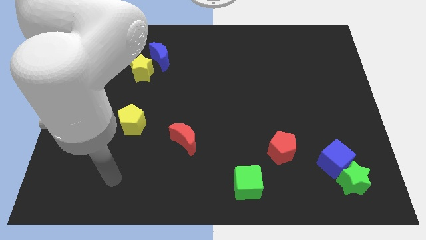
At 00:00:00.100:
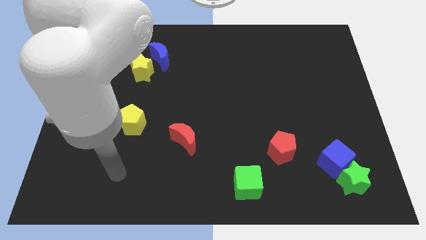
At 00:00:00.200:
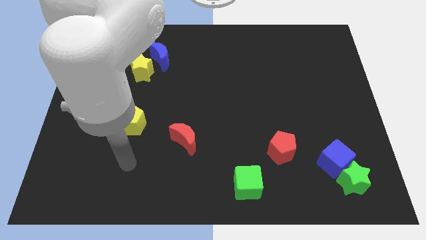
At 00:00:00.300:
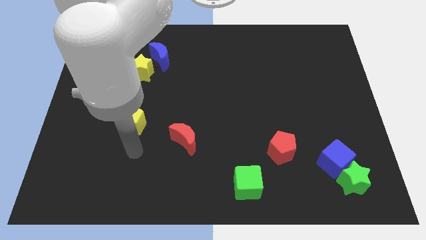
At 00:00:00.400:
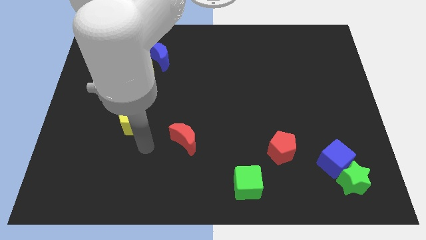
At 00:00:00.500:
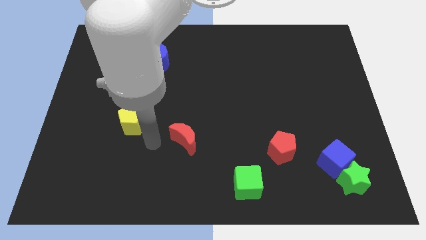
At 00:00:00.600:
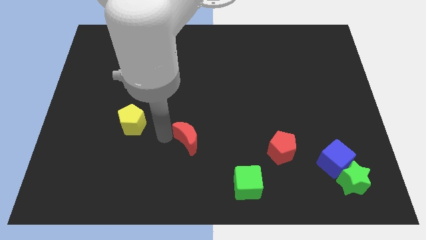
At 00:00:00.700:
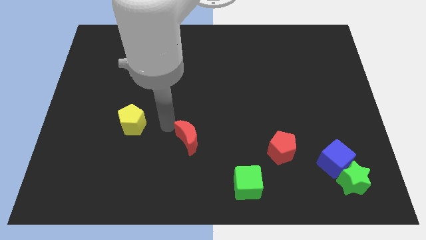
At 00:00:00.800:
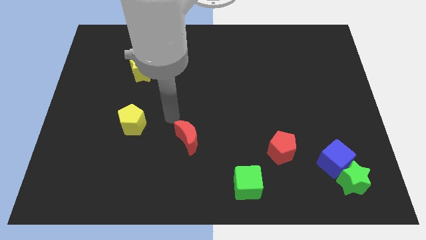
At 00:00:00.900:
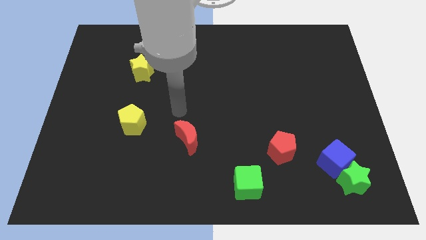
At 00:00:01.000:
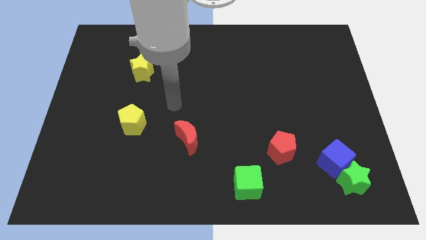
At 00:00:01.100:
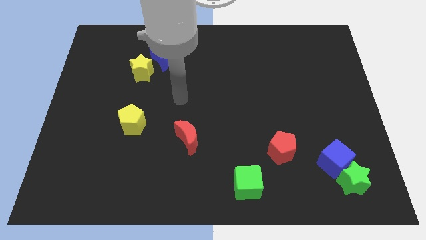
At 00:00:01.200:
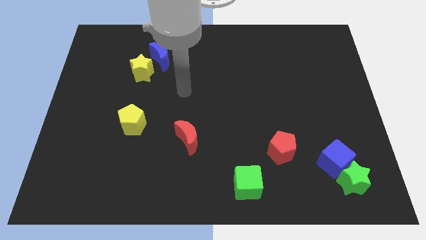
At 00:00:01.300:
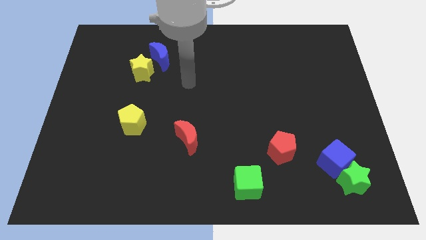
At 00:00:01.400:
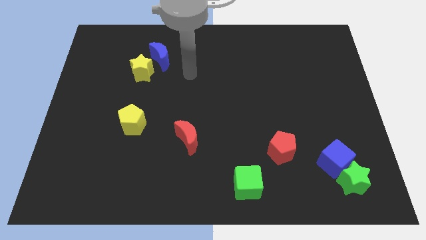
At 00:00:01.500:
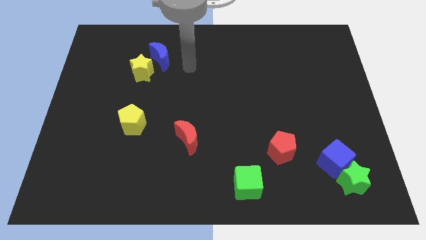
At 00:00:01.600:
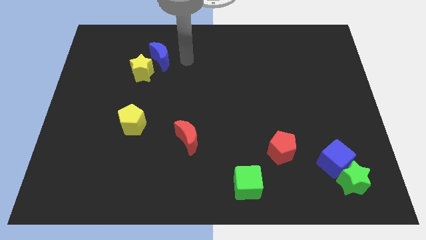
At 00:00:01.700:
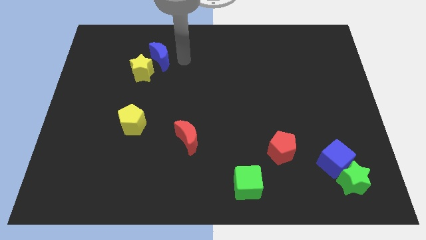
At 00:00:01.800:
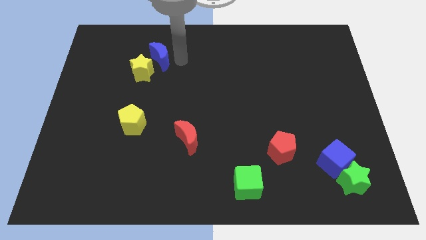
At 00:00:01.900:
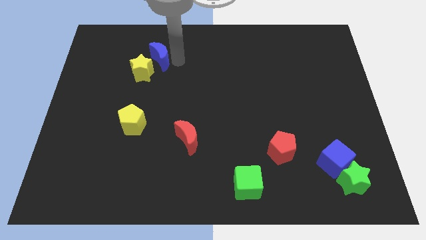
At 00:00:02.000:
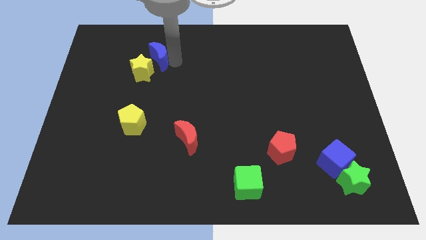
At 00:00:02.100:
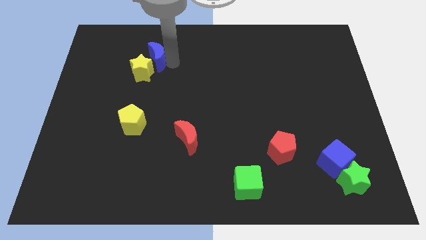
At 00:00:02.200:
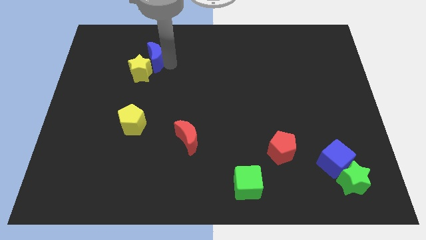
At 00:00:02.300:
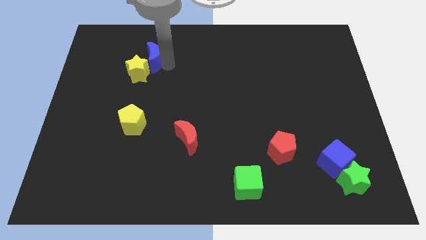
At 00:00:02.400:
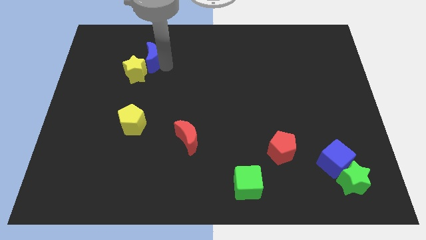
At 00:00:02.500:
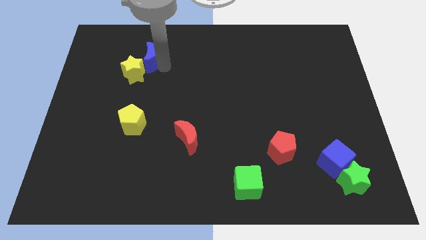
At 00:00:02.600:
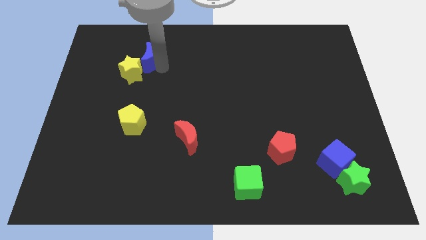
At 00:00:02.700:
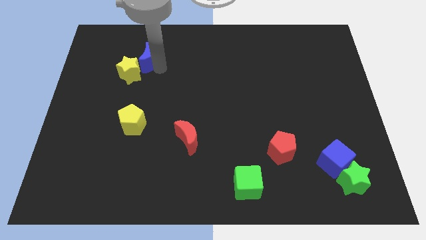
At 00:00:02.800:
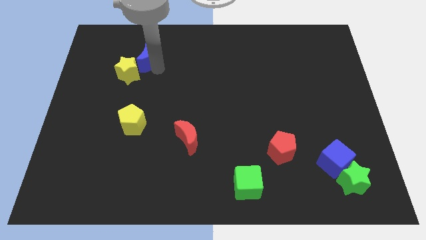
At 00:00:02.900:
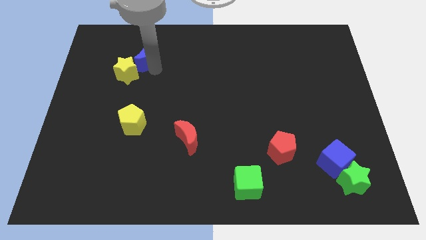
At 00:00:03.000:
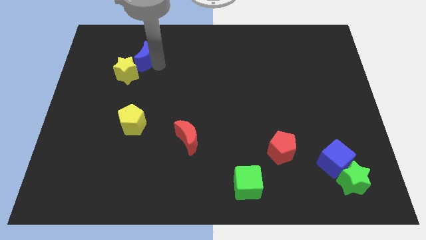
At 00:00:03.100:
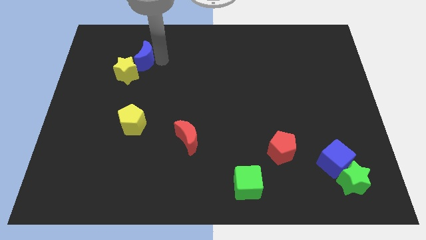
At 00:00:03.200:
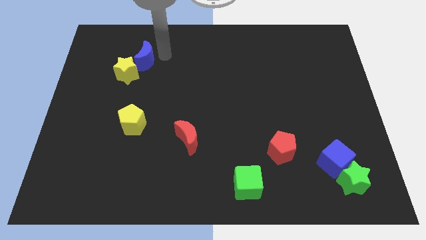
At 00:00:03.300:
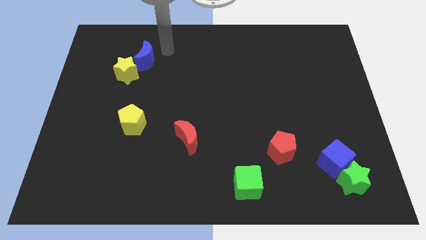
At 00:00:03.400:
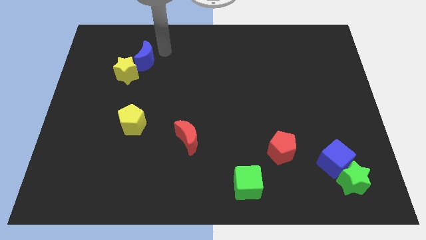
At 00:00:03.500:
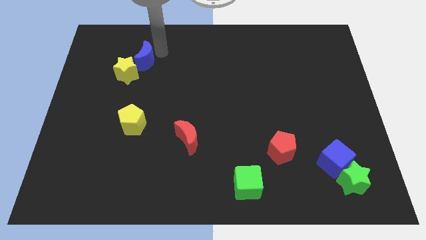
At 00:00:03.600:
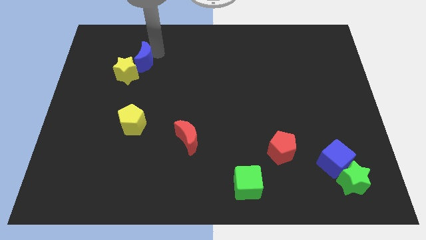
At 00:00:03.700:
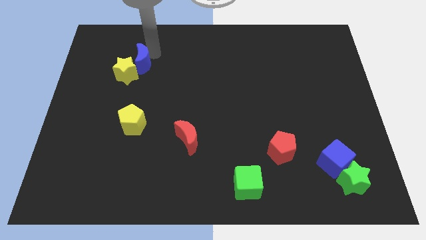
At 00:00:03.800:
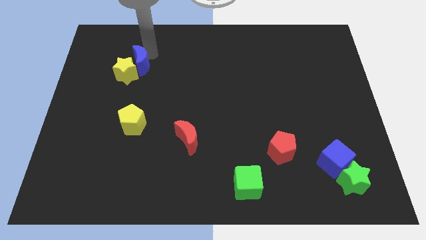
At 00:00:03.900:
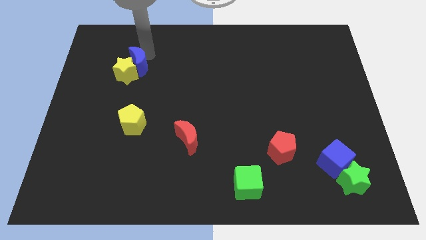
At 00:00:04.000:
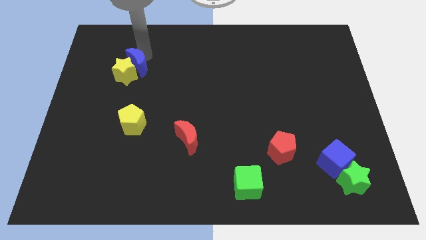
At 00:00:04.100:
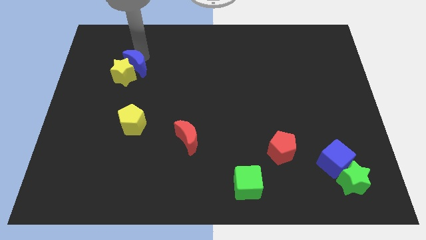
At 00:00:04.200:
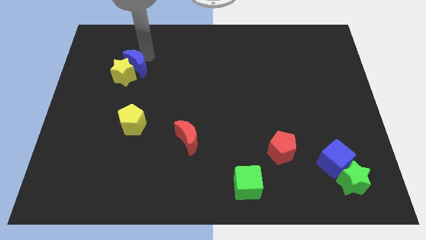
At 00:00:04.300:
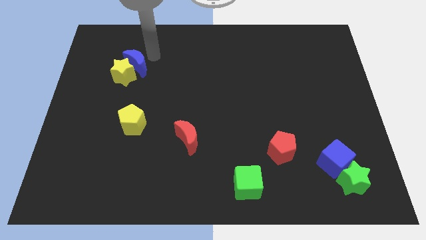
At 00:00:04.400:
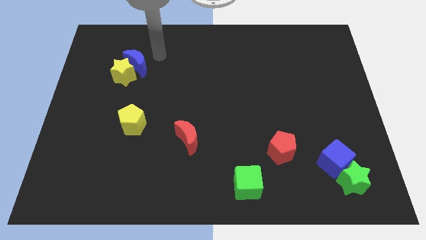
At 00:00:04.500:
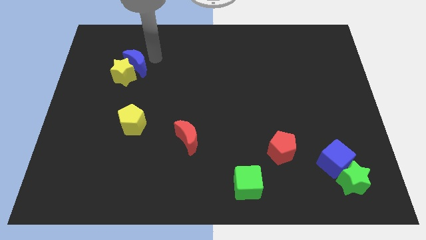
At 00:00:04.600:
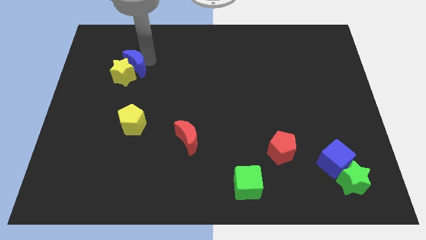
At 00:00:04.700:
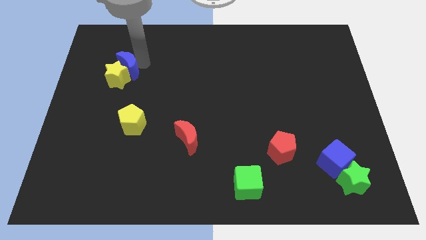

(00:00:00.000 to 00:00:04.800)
slightly slide the blue moon down and to the left diagonally

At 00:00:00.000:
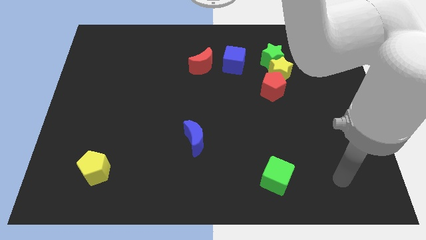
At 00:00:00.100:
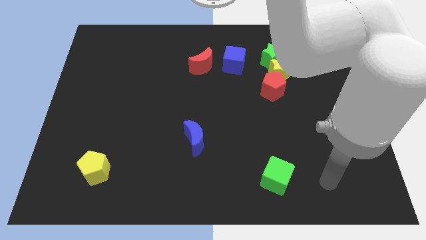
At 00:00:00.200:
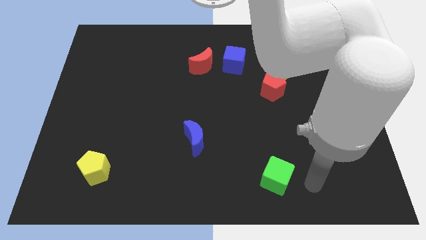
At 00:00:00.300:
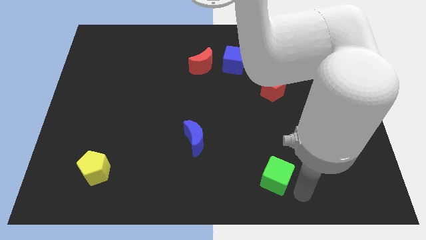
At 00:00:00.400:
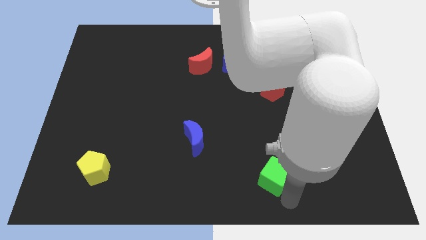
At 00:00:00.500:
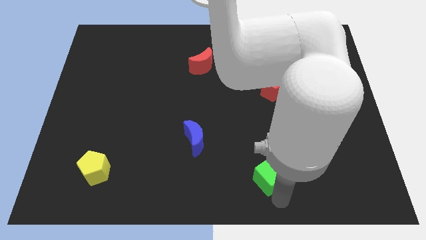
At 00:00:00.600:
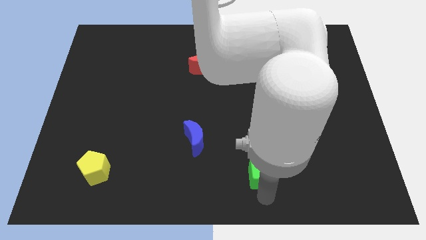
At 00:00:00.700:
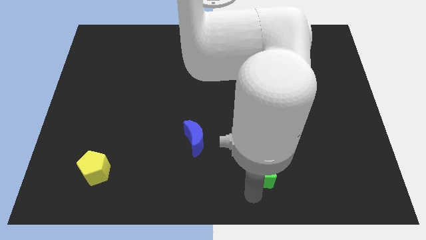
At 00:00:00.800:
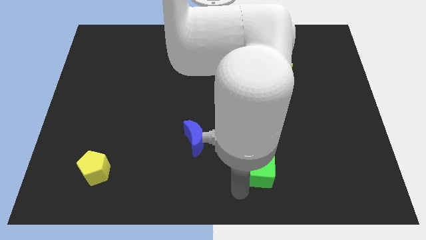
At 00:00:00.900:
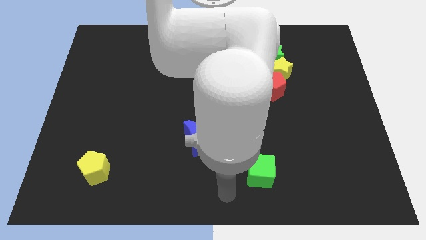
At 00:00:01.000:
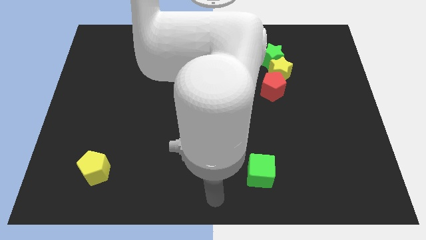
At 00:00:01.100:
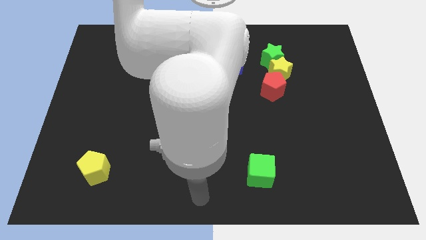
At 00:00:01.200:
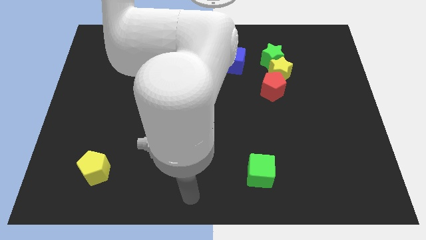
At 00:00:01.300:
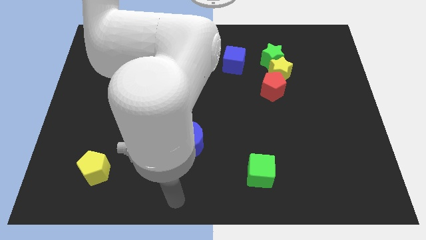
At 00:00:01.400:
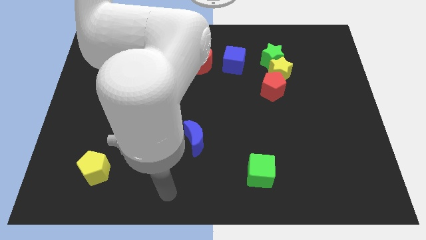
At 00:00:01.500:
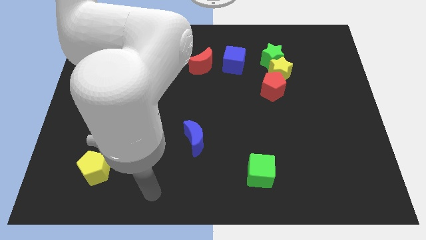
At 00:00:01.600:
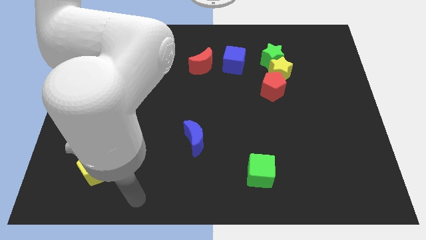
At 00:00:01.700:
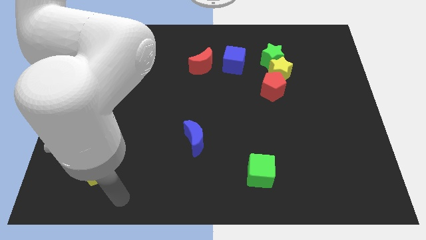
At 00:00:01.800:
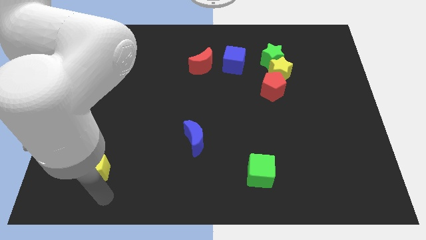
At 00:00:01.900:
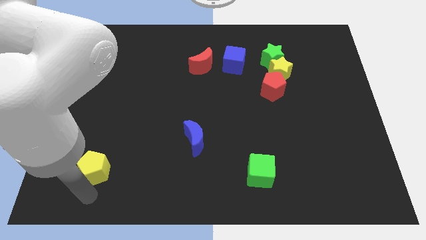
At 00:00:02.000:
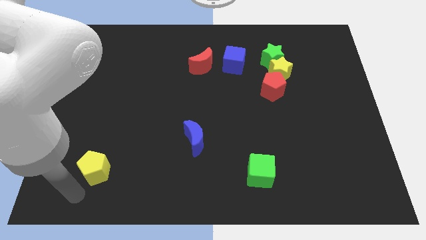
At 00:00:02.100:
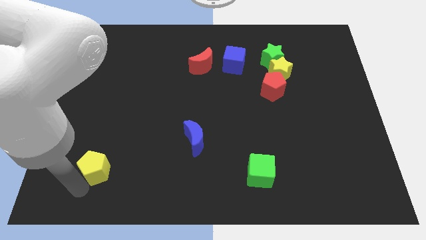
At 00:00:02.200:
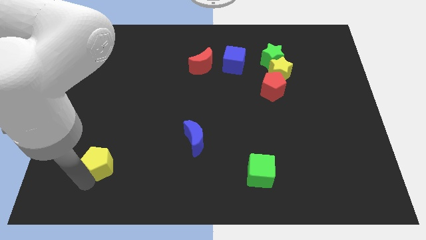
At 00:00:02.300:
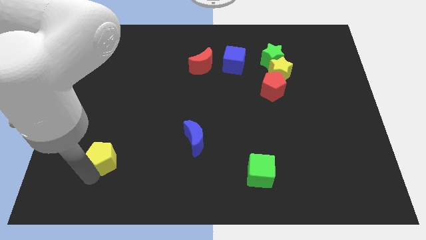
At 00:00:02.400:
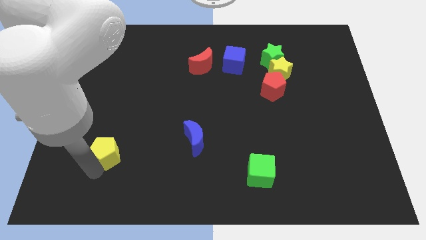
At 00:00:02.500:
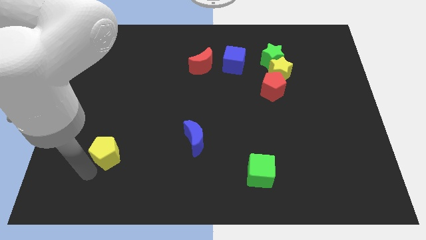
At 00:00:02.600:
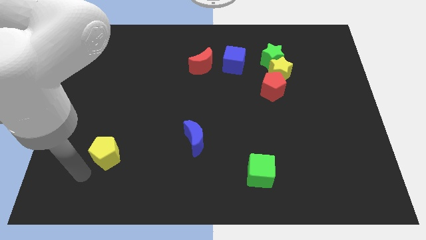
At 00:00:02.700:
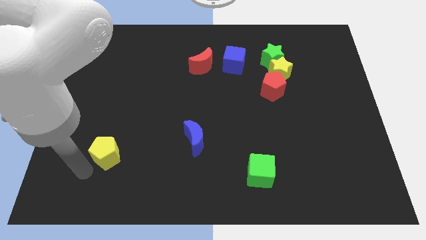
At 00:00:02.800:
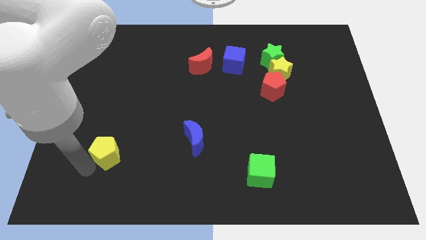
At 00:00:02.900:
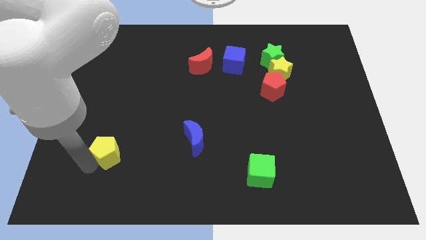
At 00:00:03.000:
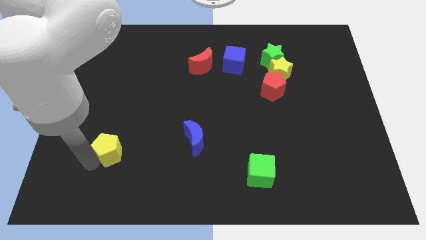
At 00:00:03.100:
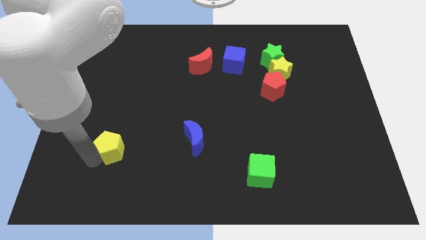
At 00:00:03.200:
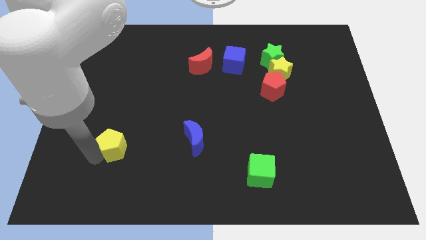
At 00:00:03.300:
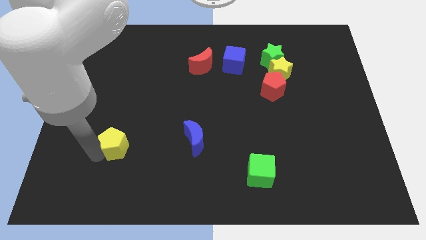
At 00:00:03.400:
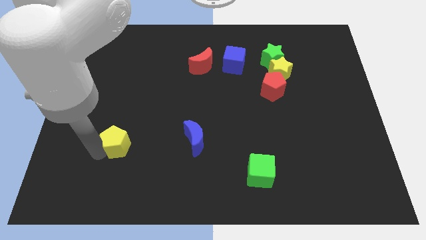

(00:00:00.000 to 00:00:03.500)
push the yellow pentagon a little diagonally up and right
